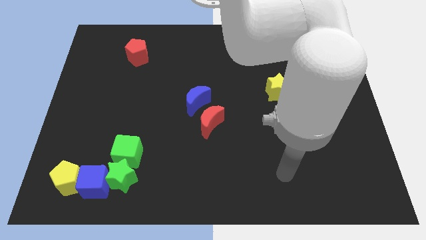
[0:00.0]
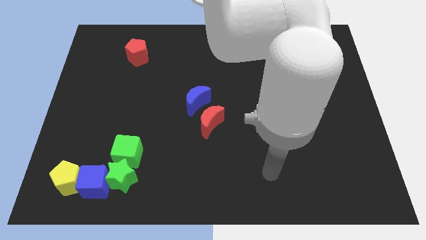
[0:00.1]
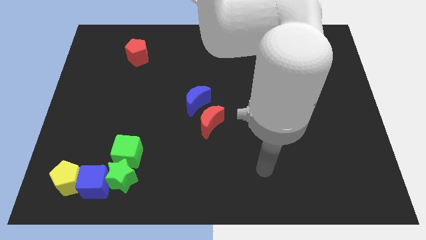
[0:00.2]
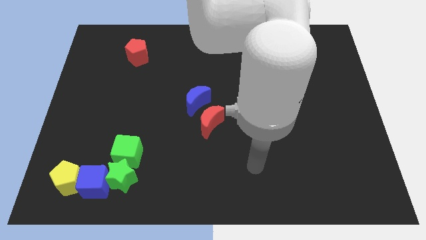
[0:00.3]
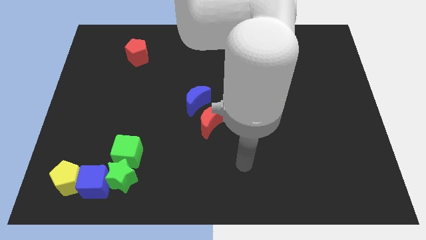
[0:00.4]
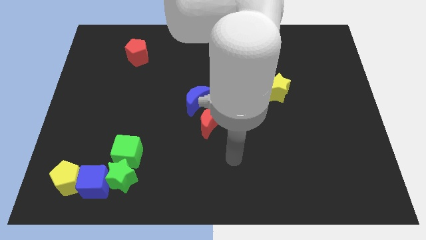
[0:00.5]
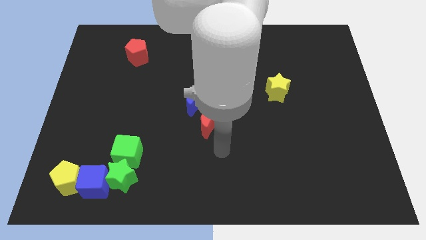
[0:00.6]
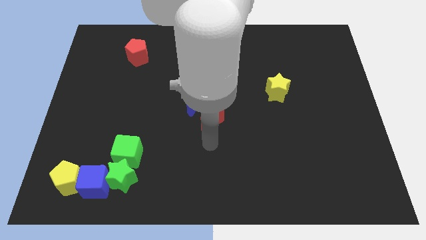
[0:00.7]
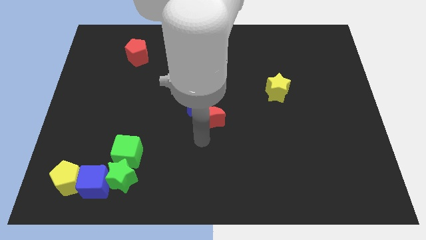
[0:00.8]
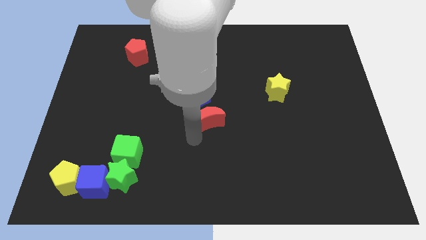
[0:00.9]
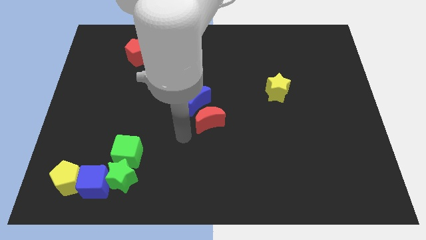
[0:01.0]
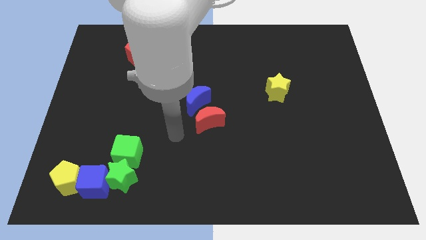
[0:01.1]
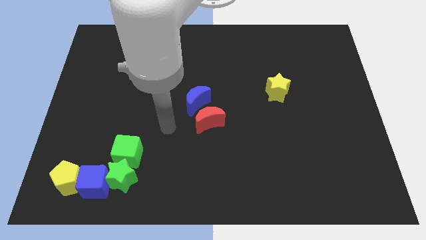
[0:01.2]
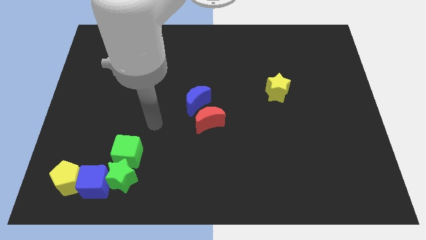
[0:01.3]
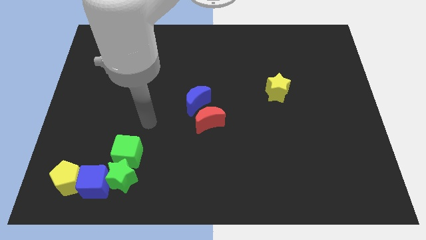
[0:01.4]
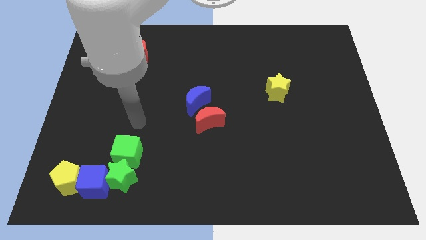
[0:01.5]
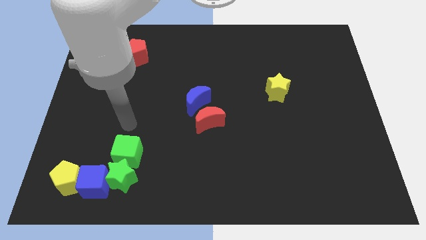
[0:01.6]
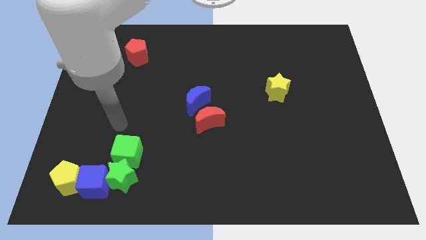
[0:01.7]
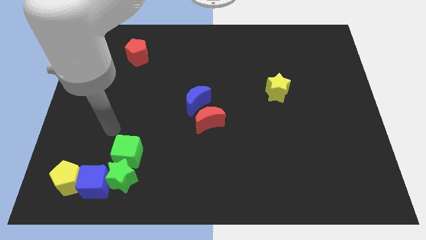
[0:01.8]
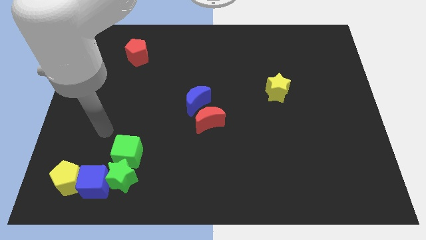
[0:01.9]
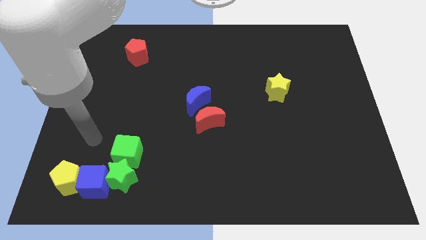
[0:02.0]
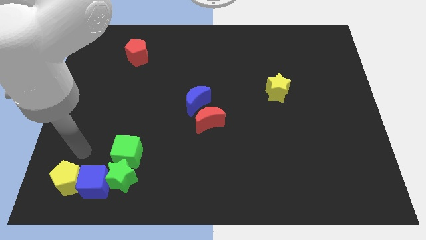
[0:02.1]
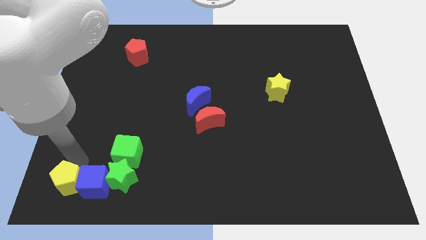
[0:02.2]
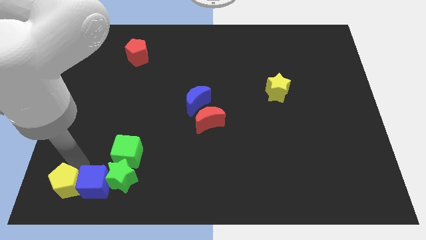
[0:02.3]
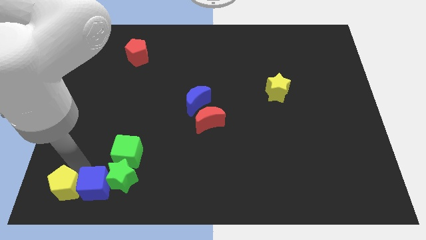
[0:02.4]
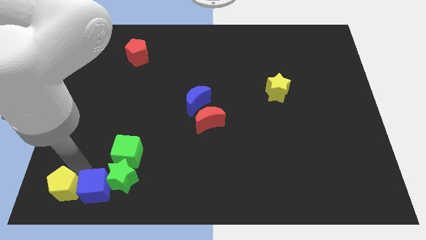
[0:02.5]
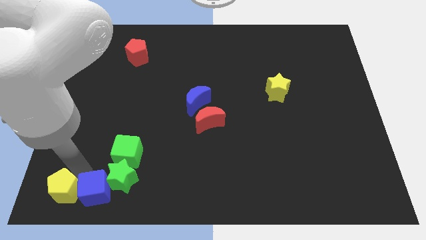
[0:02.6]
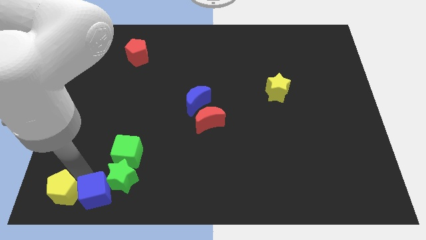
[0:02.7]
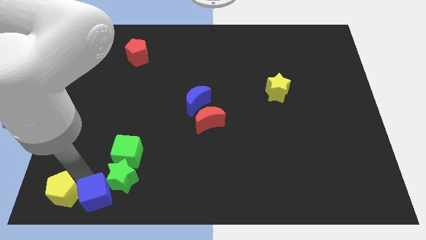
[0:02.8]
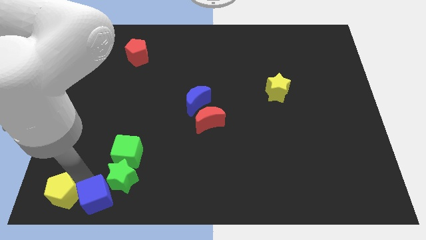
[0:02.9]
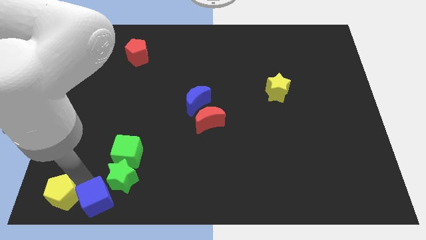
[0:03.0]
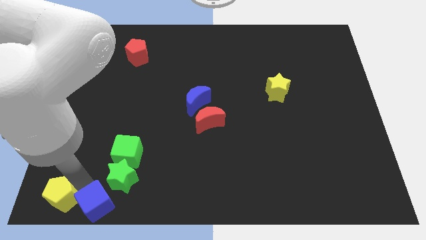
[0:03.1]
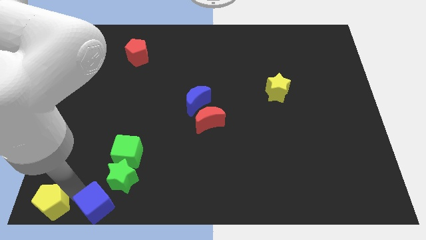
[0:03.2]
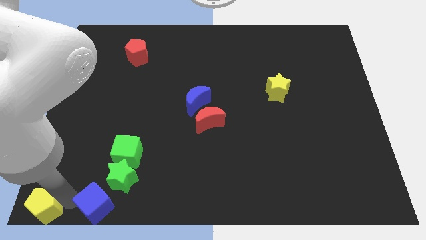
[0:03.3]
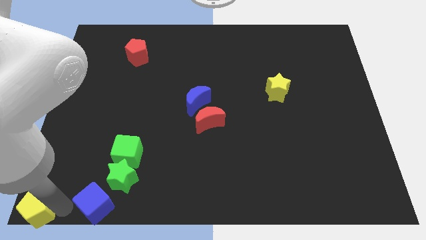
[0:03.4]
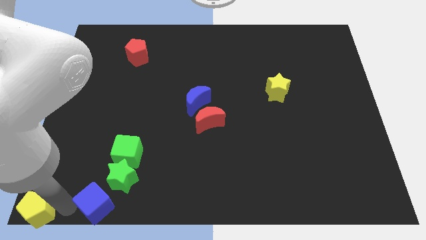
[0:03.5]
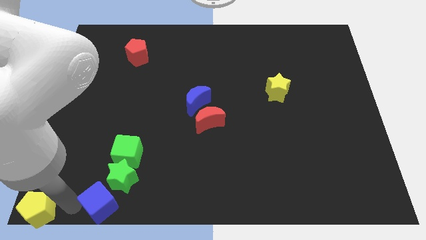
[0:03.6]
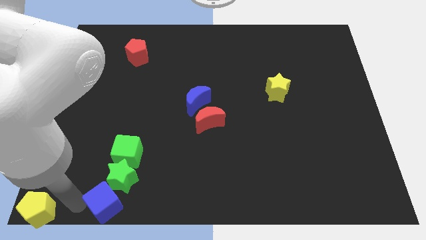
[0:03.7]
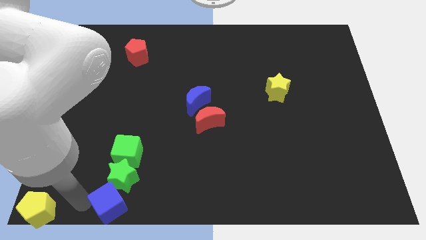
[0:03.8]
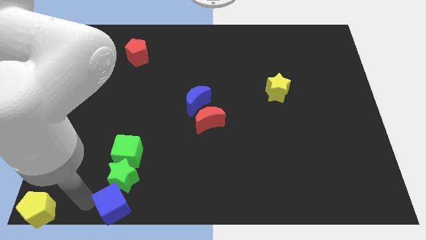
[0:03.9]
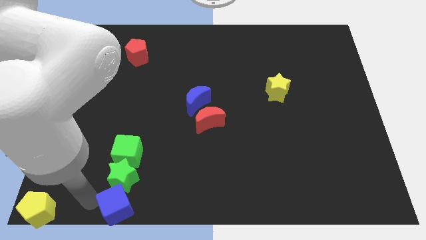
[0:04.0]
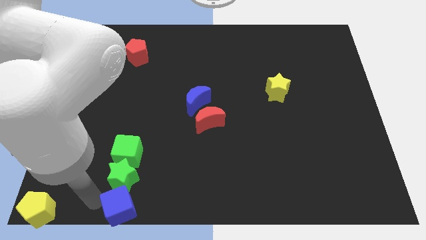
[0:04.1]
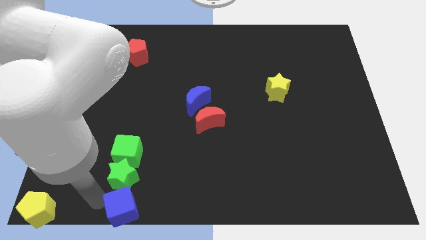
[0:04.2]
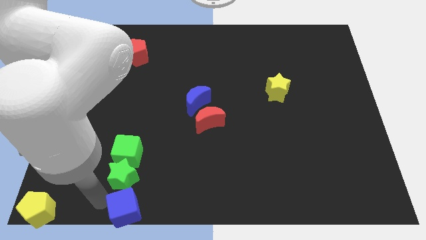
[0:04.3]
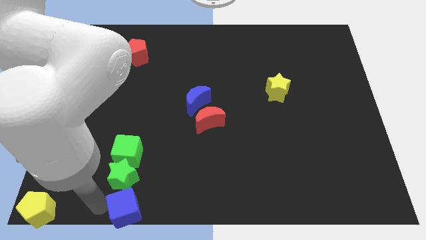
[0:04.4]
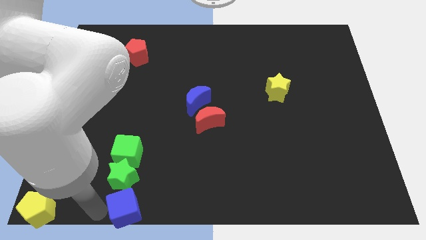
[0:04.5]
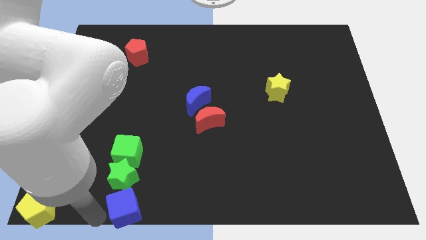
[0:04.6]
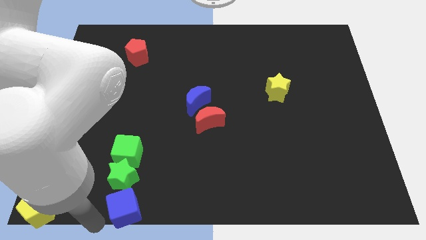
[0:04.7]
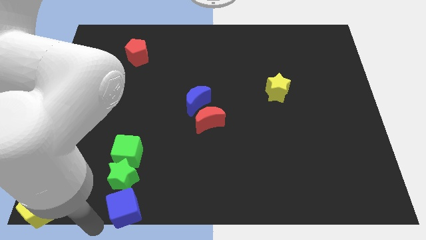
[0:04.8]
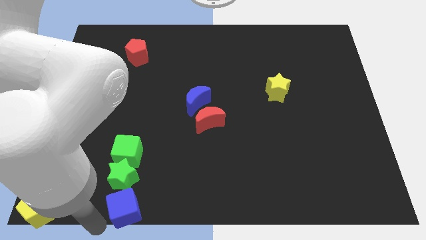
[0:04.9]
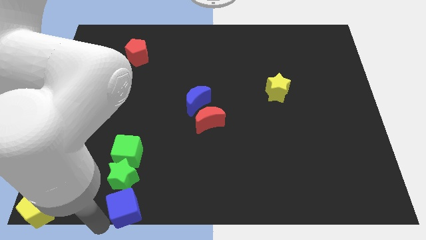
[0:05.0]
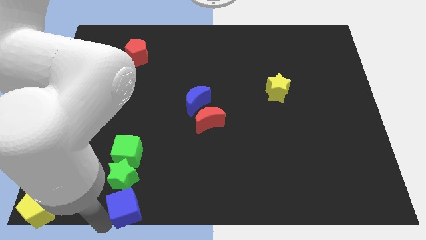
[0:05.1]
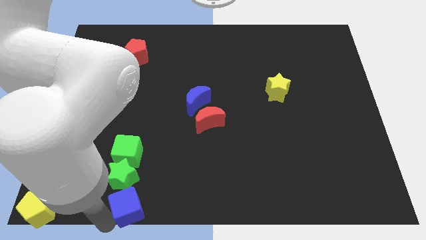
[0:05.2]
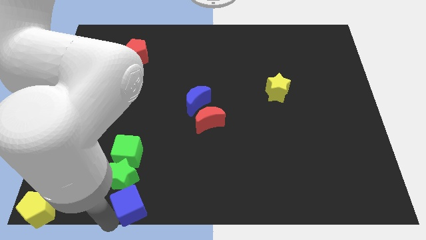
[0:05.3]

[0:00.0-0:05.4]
push the blue cube somewhat to the right

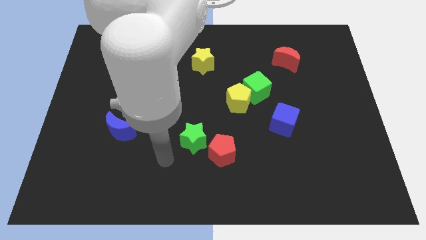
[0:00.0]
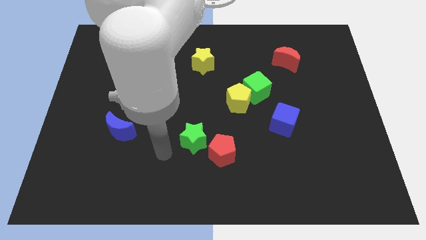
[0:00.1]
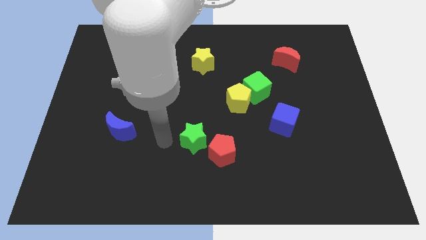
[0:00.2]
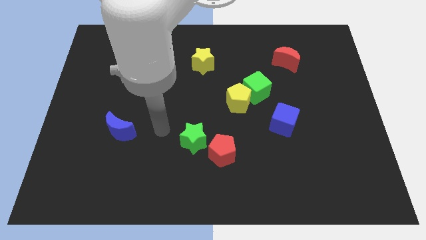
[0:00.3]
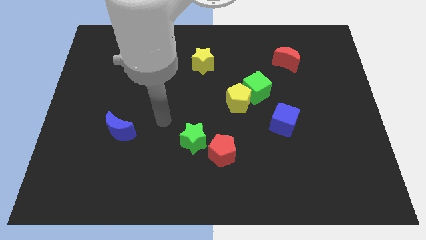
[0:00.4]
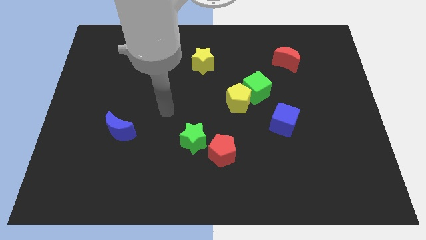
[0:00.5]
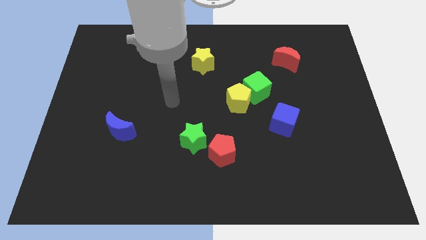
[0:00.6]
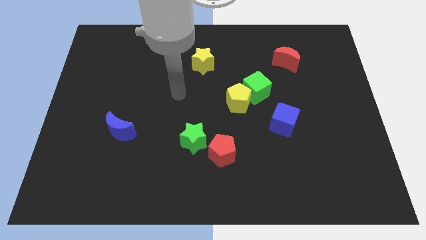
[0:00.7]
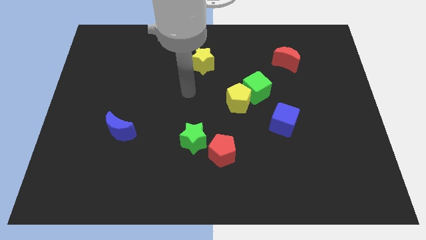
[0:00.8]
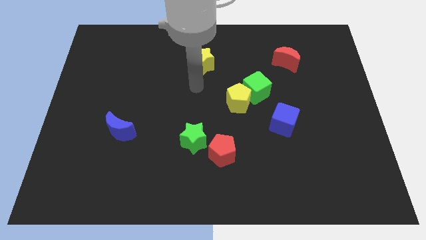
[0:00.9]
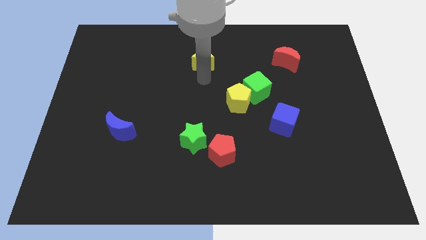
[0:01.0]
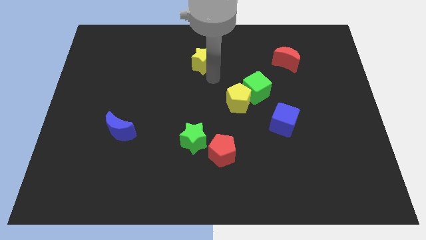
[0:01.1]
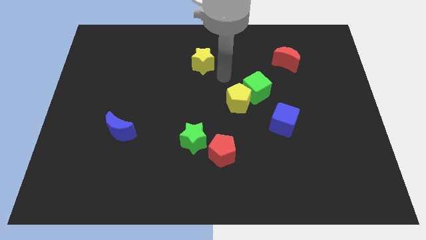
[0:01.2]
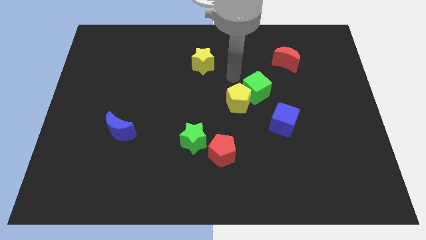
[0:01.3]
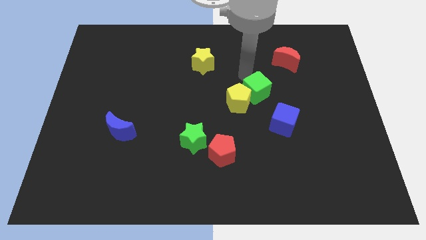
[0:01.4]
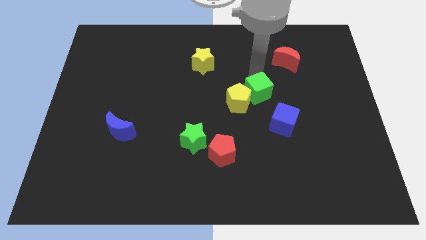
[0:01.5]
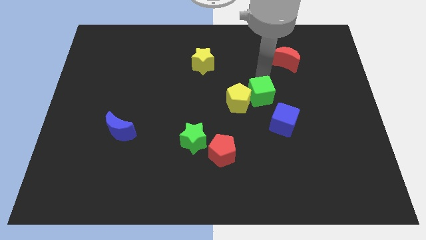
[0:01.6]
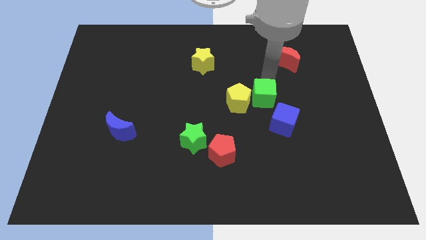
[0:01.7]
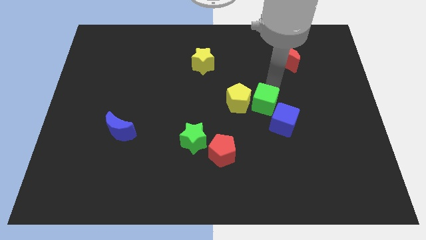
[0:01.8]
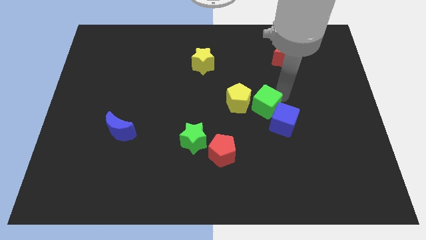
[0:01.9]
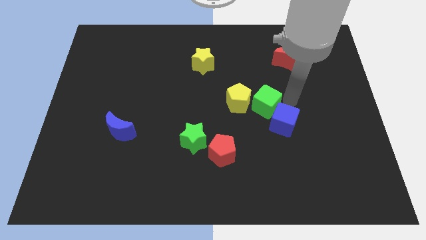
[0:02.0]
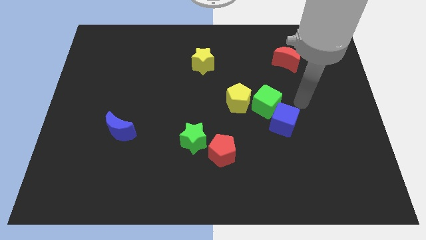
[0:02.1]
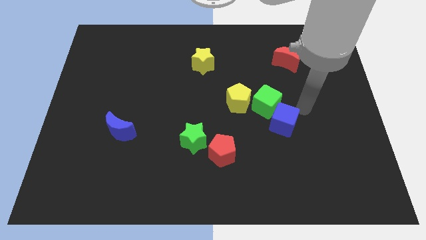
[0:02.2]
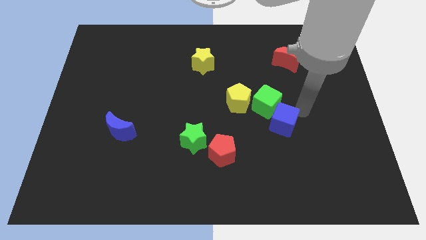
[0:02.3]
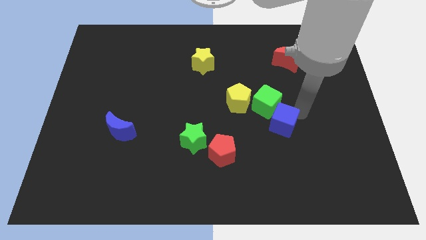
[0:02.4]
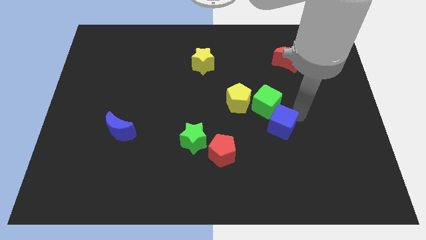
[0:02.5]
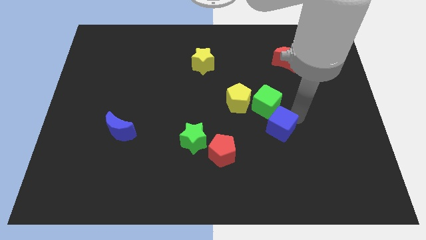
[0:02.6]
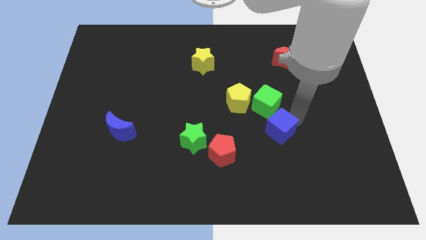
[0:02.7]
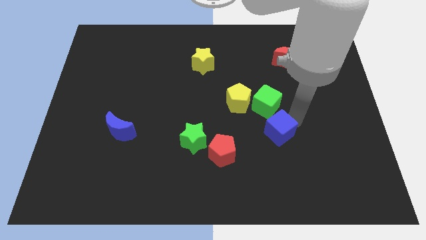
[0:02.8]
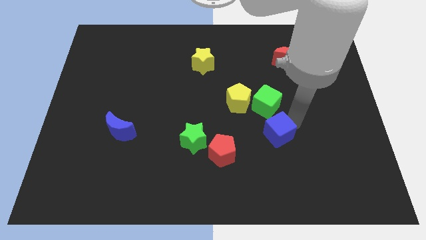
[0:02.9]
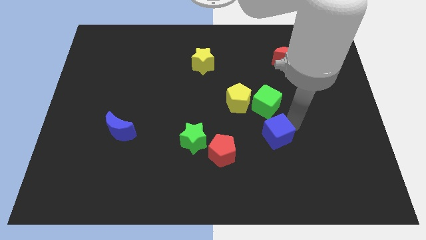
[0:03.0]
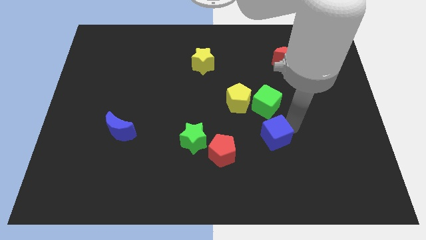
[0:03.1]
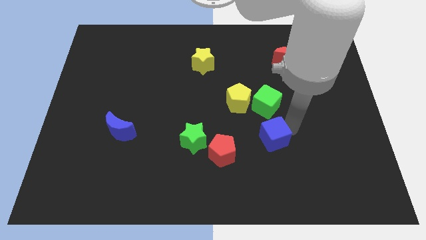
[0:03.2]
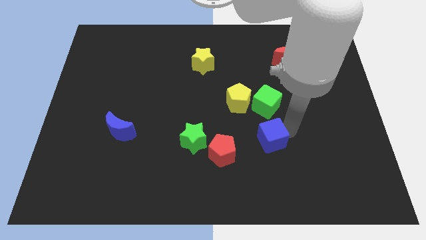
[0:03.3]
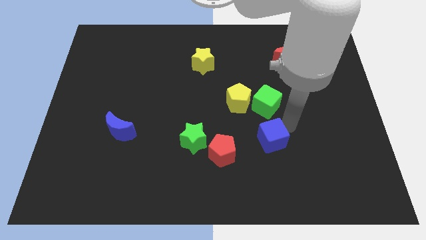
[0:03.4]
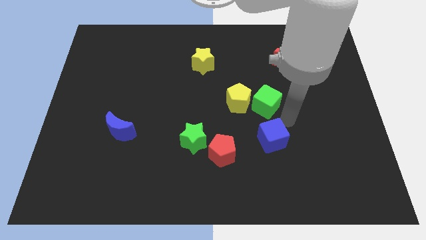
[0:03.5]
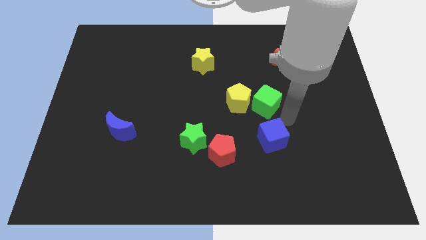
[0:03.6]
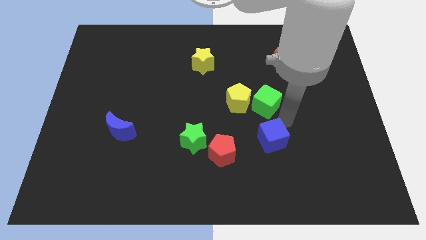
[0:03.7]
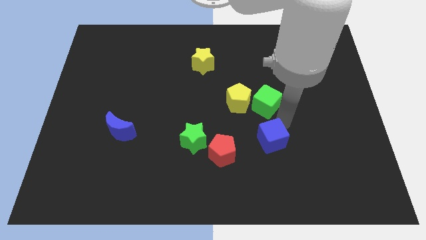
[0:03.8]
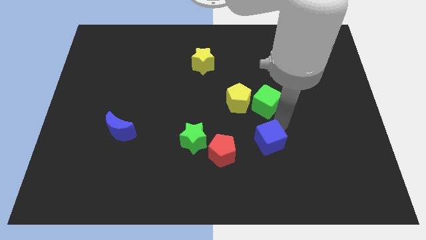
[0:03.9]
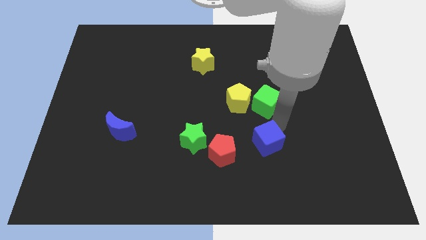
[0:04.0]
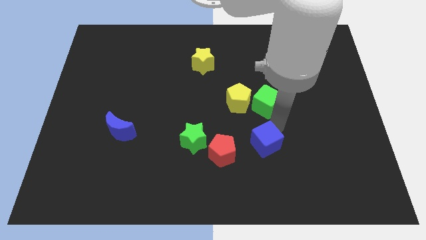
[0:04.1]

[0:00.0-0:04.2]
slide the blue cube somewhat down and then to the left
